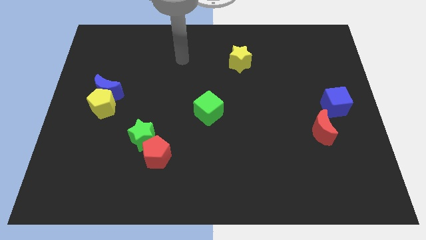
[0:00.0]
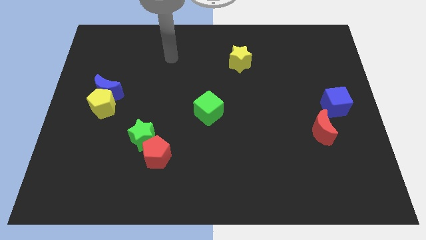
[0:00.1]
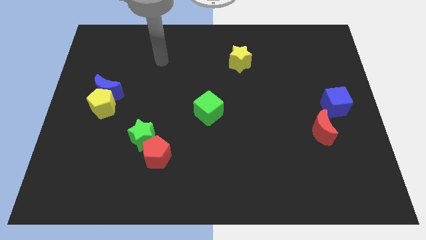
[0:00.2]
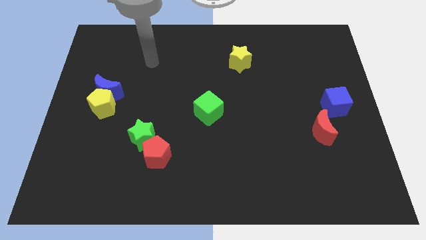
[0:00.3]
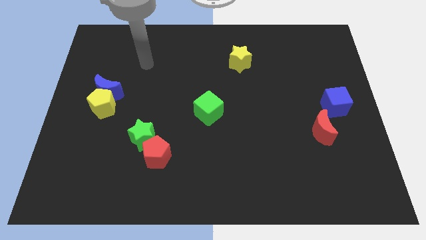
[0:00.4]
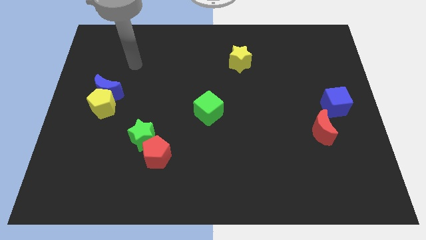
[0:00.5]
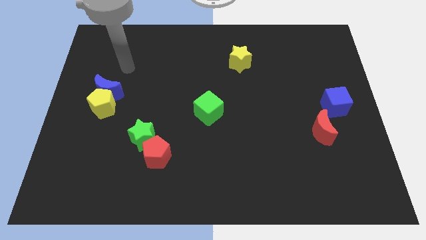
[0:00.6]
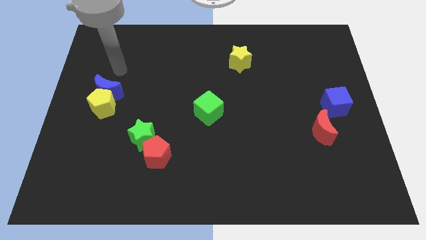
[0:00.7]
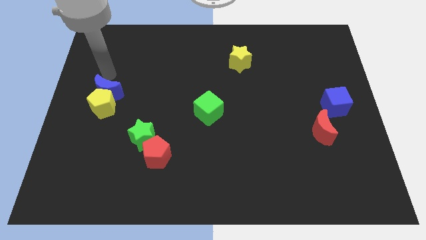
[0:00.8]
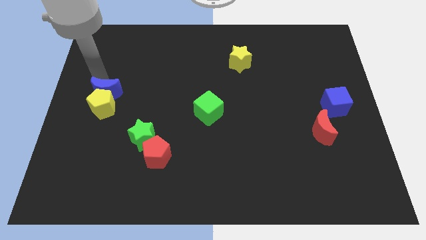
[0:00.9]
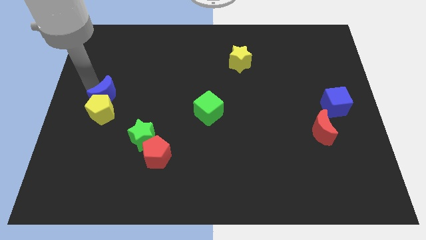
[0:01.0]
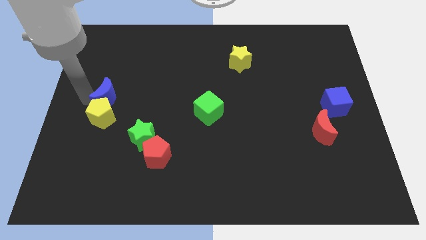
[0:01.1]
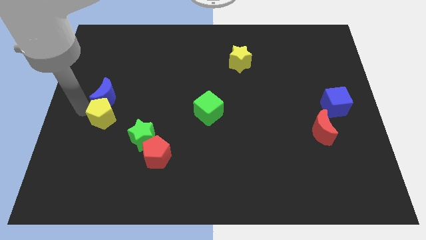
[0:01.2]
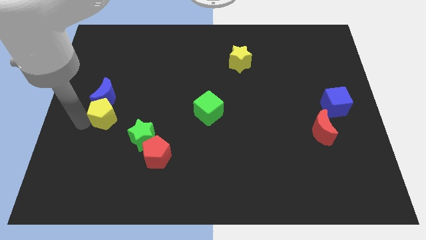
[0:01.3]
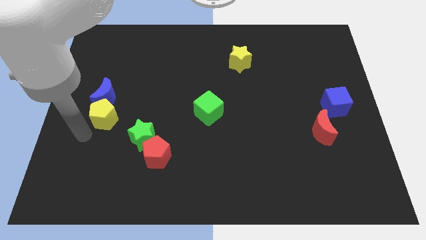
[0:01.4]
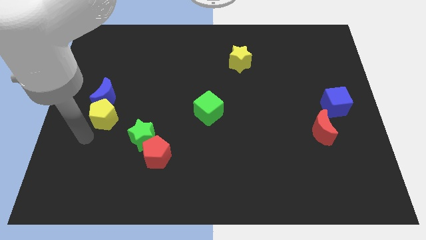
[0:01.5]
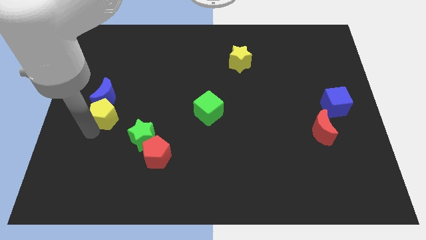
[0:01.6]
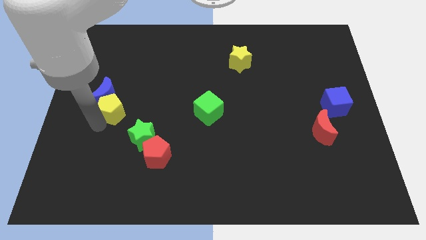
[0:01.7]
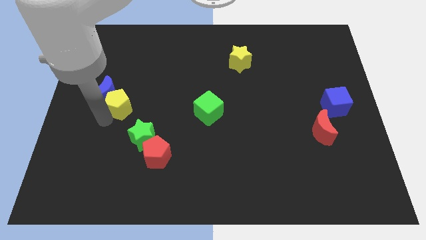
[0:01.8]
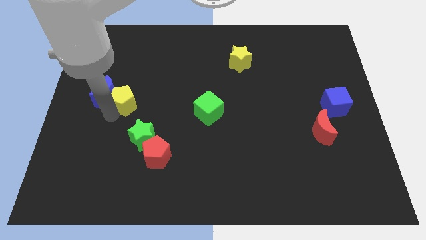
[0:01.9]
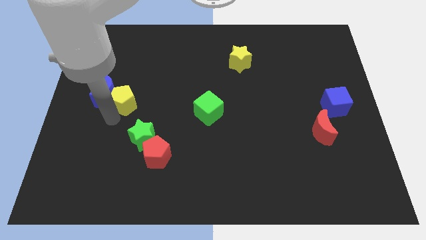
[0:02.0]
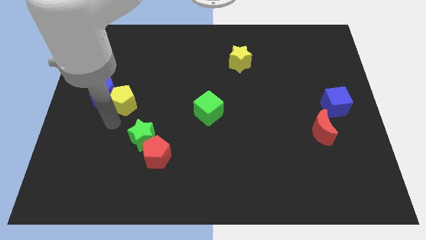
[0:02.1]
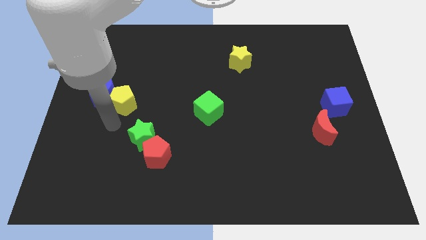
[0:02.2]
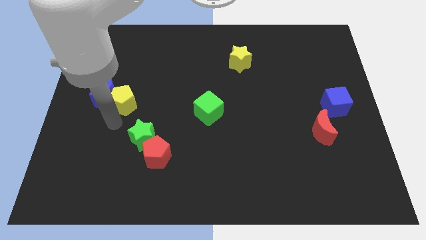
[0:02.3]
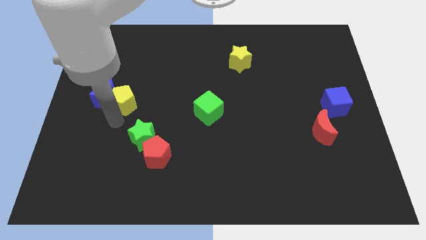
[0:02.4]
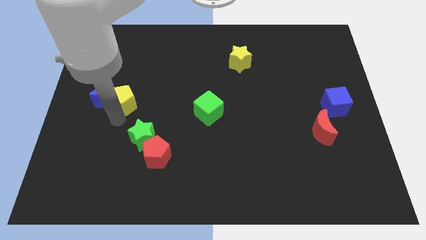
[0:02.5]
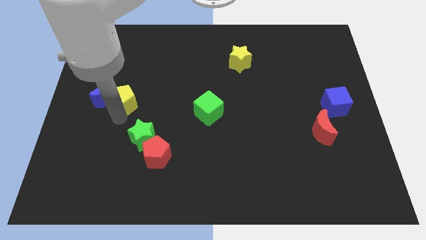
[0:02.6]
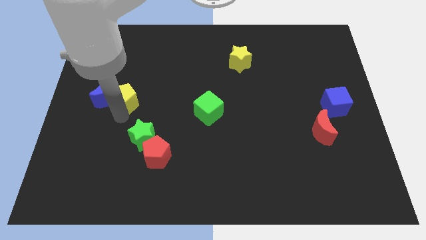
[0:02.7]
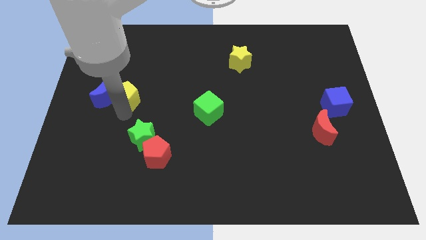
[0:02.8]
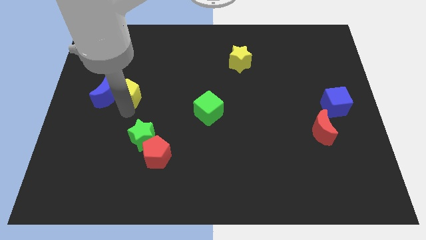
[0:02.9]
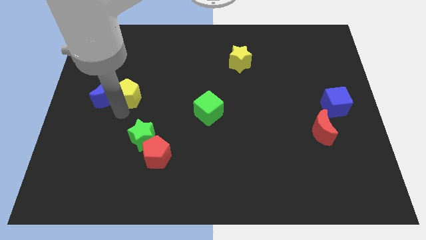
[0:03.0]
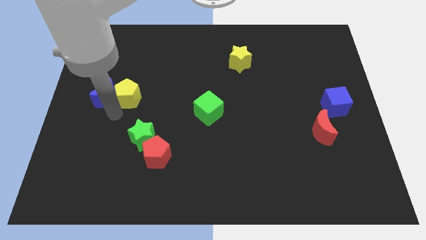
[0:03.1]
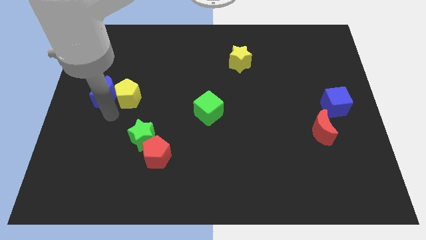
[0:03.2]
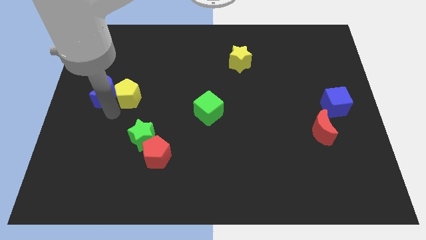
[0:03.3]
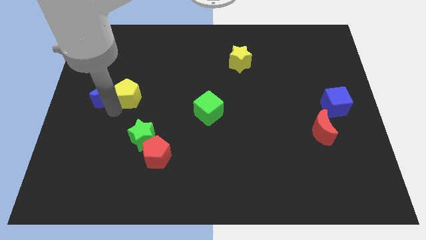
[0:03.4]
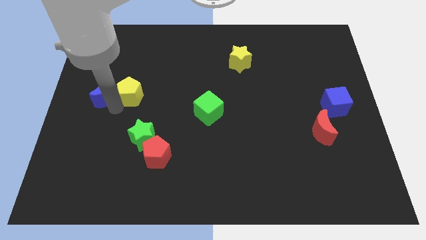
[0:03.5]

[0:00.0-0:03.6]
slightly move the yellow pentagon upwards and right

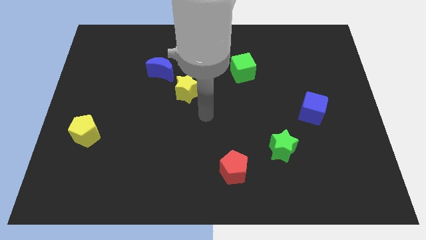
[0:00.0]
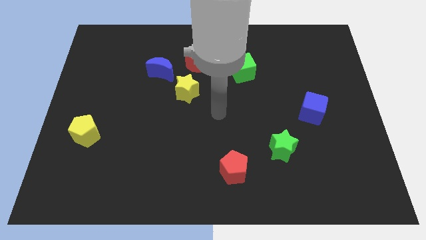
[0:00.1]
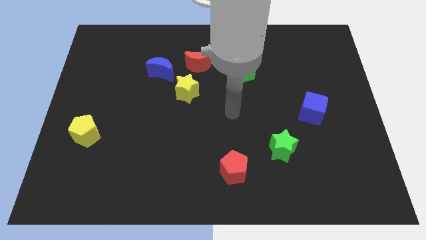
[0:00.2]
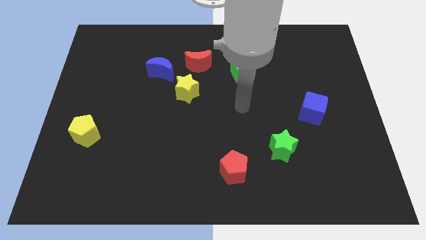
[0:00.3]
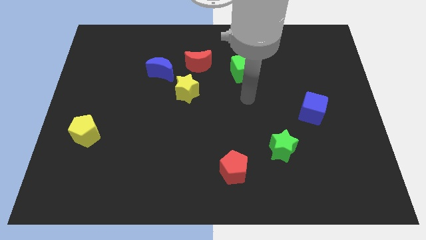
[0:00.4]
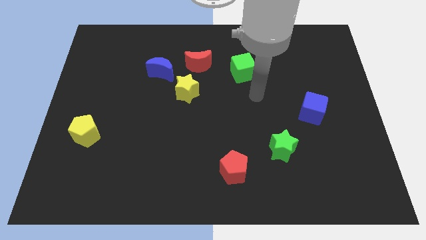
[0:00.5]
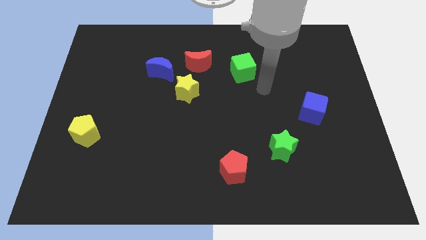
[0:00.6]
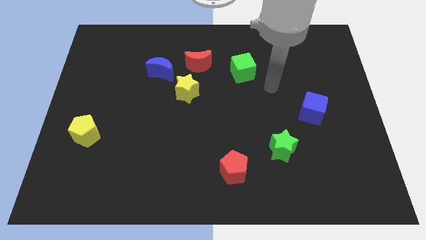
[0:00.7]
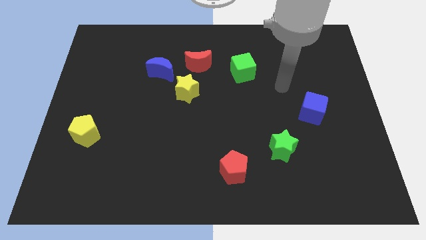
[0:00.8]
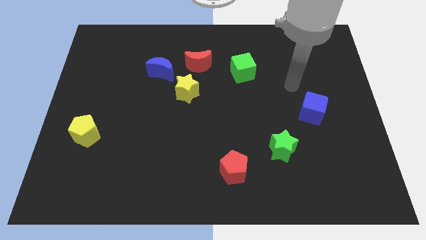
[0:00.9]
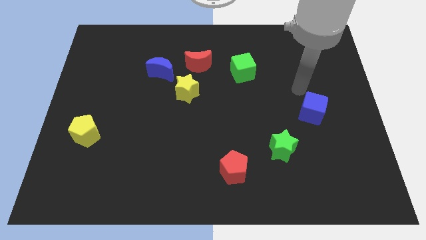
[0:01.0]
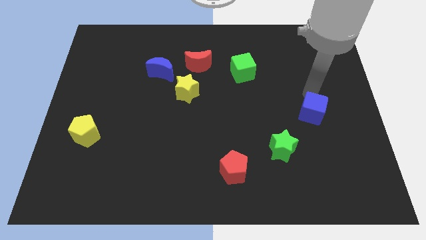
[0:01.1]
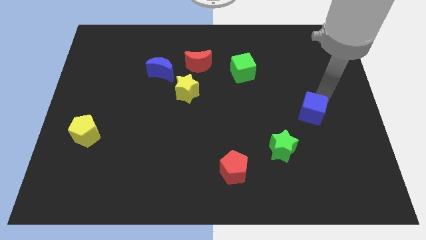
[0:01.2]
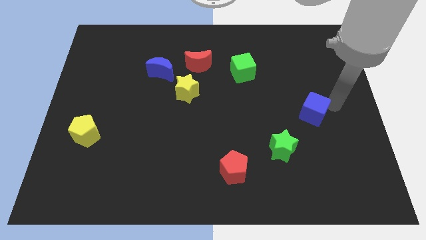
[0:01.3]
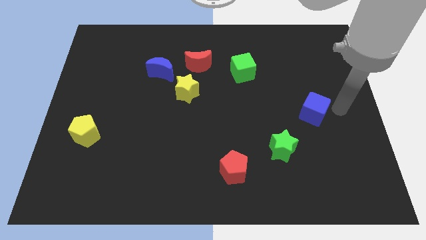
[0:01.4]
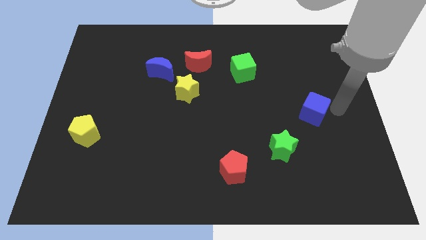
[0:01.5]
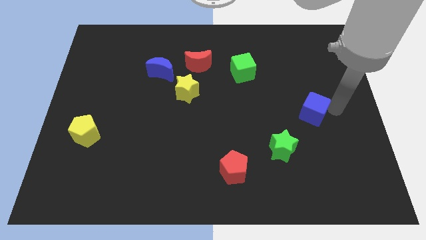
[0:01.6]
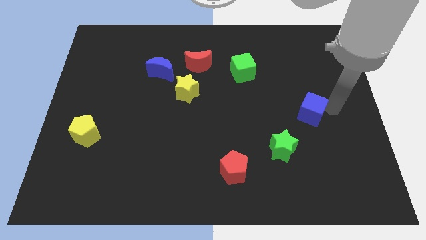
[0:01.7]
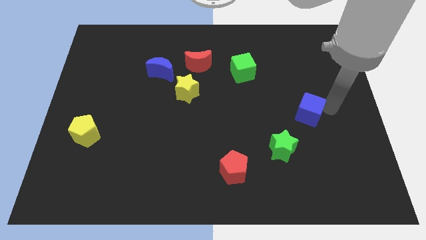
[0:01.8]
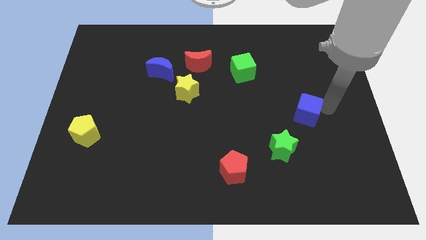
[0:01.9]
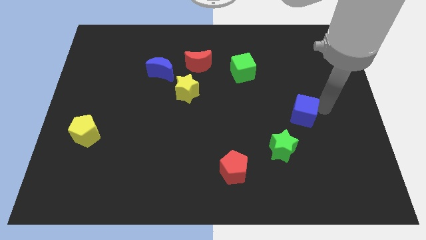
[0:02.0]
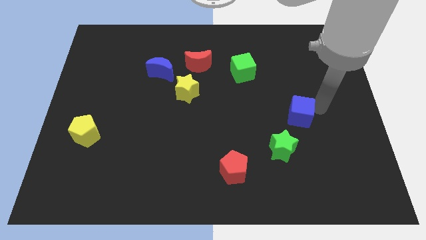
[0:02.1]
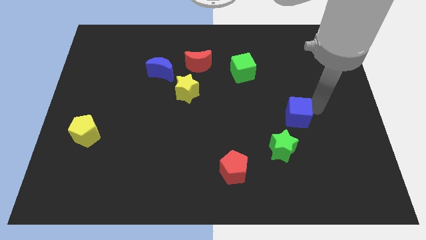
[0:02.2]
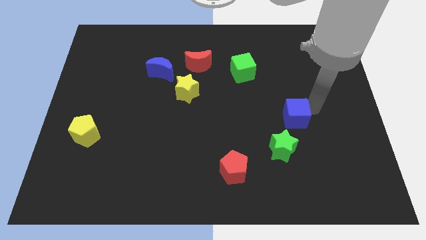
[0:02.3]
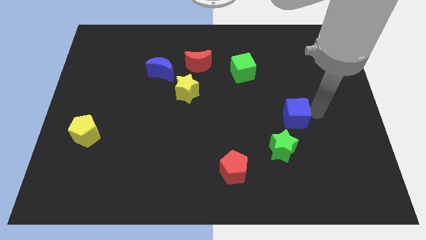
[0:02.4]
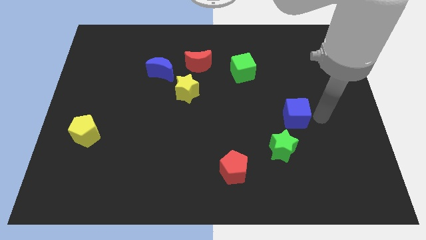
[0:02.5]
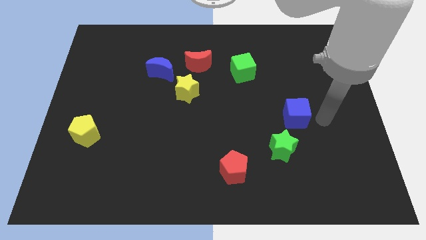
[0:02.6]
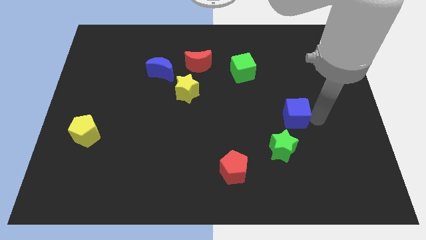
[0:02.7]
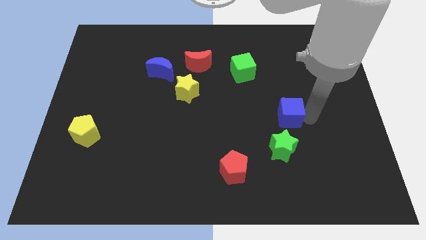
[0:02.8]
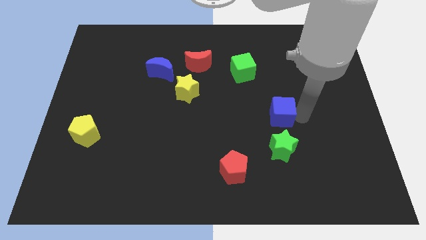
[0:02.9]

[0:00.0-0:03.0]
slide the blue cube left a little bit

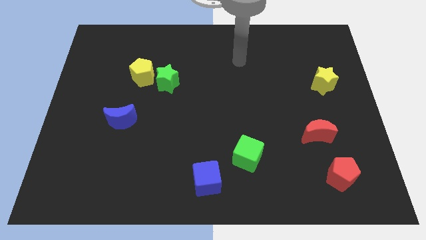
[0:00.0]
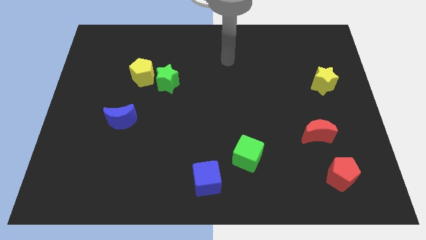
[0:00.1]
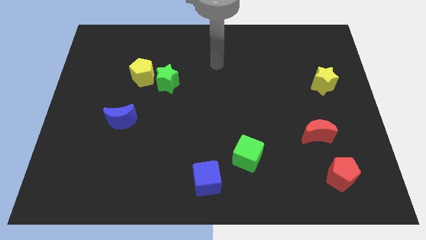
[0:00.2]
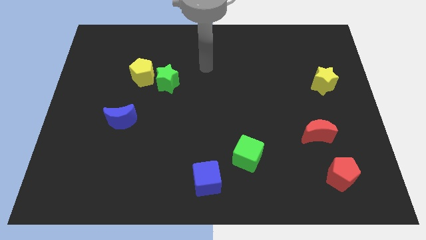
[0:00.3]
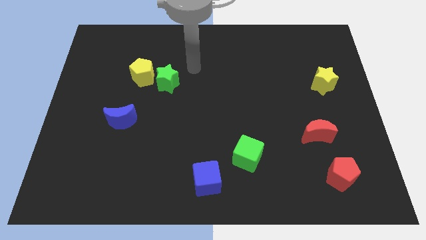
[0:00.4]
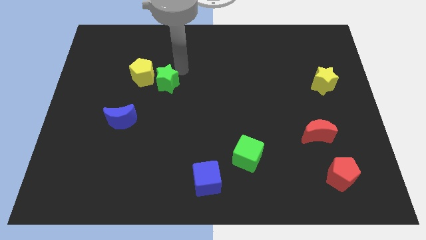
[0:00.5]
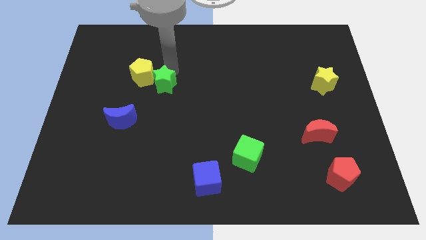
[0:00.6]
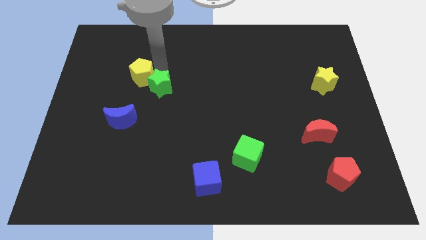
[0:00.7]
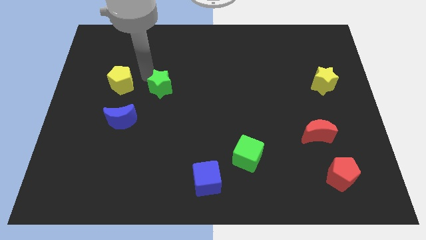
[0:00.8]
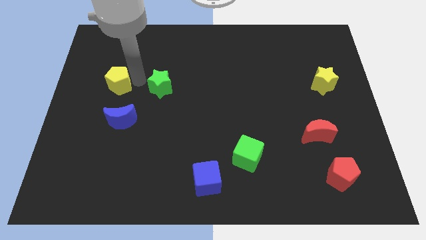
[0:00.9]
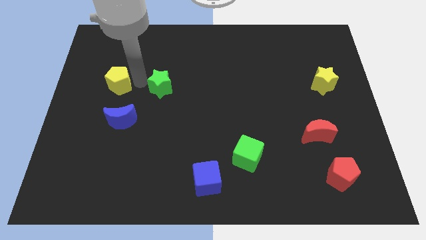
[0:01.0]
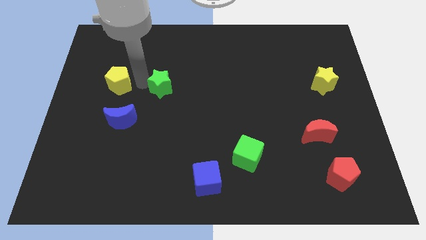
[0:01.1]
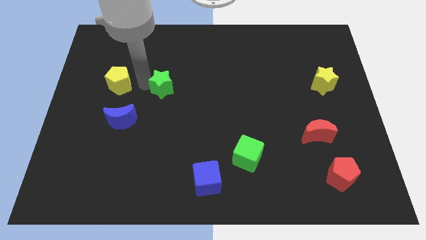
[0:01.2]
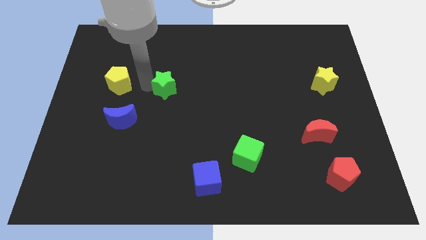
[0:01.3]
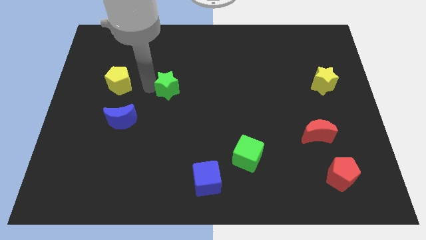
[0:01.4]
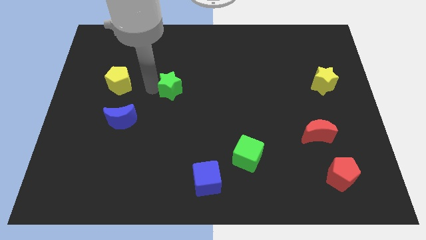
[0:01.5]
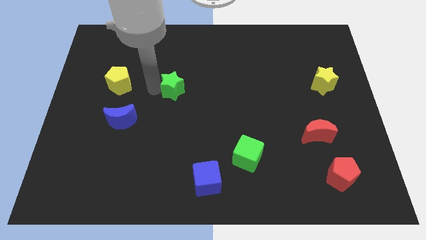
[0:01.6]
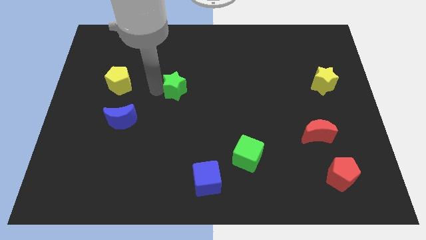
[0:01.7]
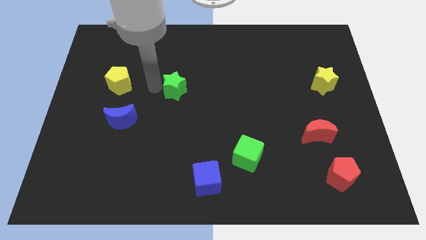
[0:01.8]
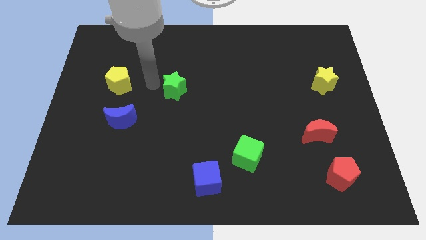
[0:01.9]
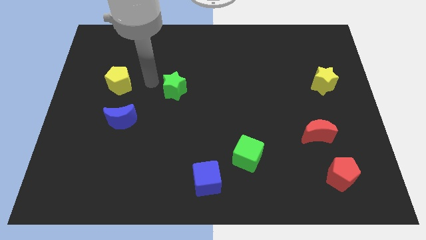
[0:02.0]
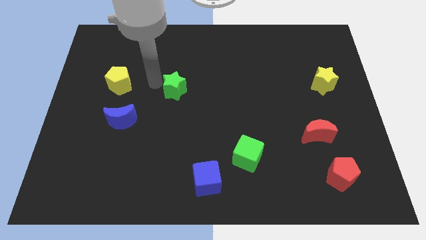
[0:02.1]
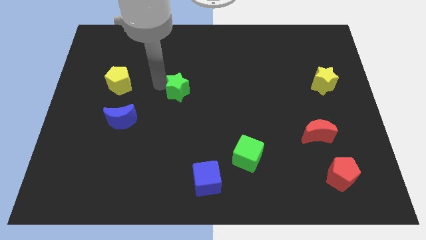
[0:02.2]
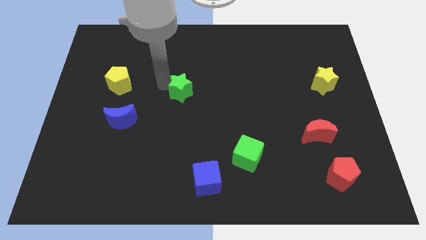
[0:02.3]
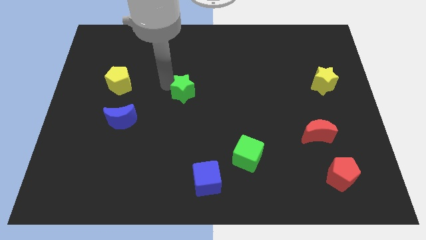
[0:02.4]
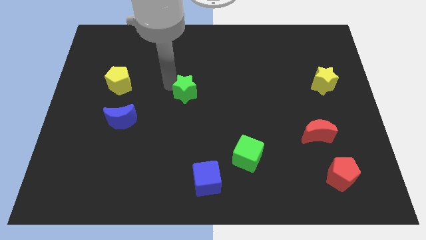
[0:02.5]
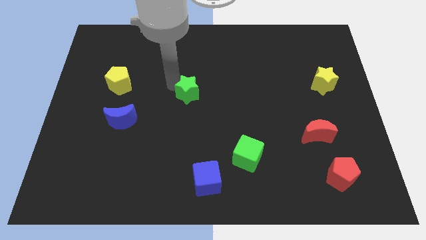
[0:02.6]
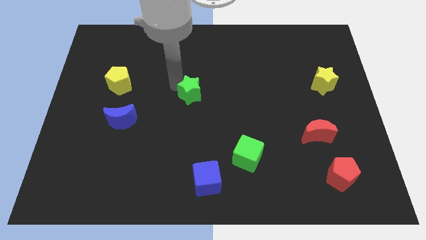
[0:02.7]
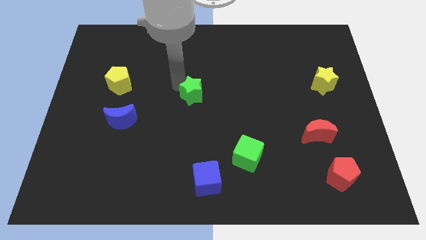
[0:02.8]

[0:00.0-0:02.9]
move the green star a little downwards and right diagonally
